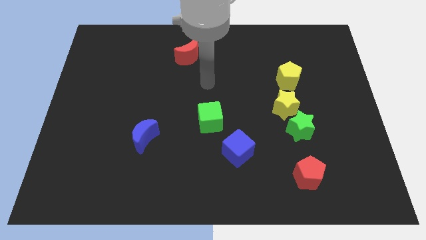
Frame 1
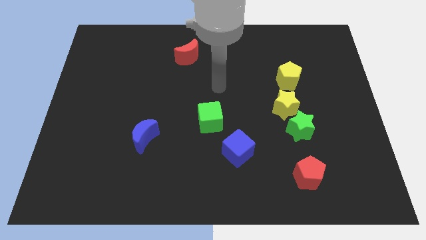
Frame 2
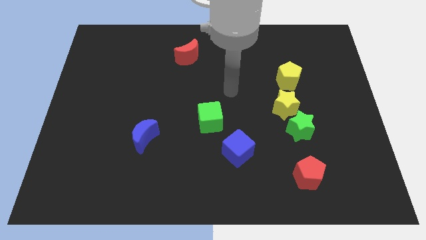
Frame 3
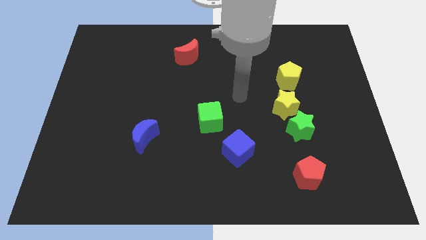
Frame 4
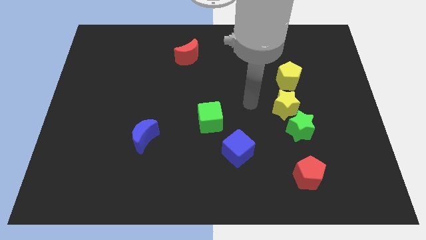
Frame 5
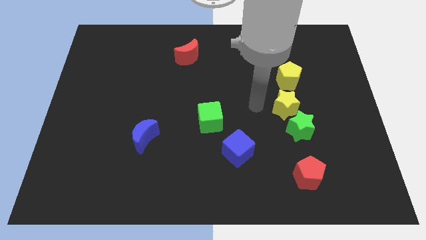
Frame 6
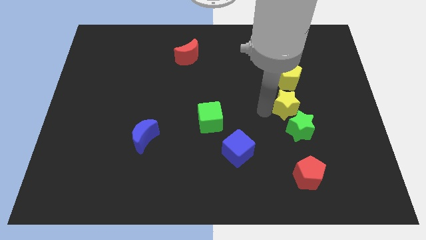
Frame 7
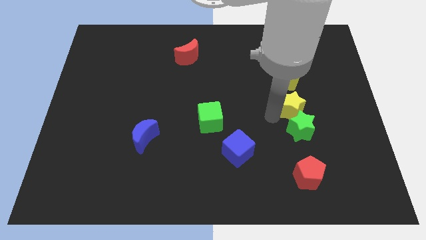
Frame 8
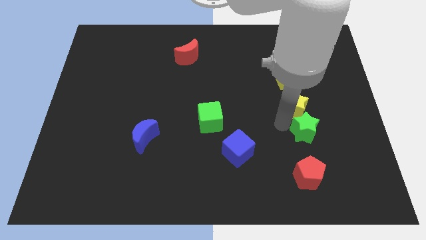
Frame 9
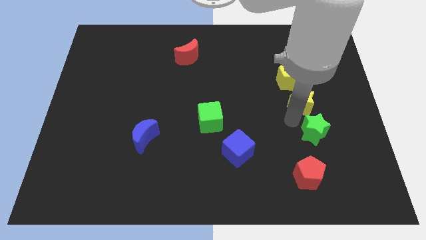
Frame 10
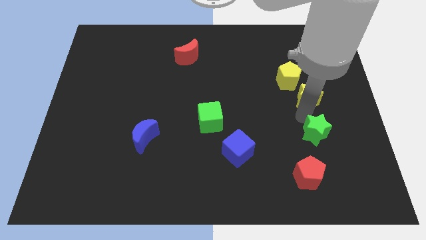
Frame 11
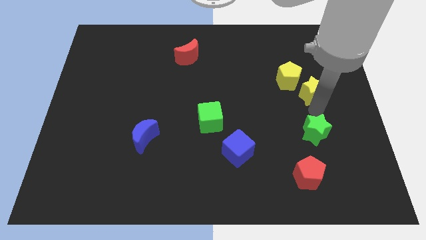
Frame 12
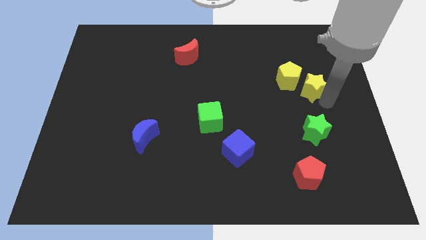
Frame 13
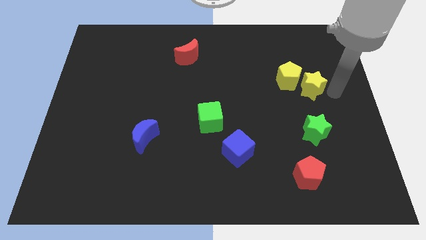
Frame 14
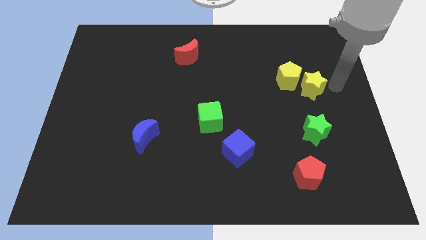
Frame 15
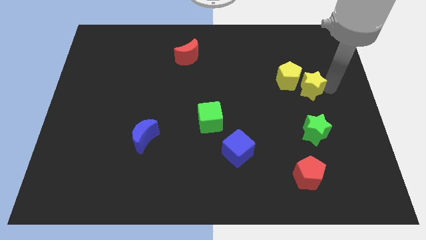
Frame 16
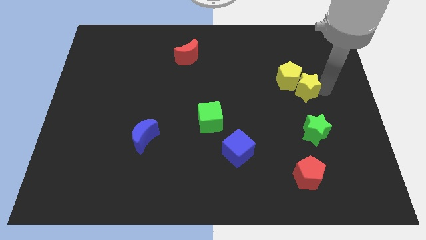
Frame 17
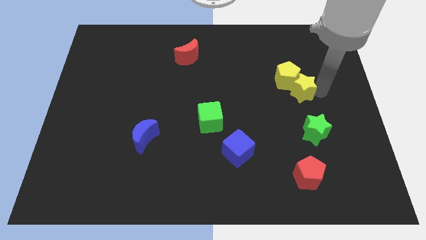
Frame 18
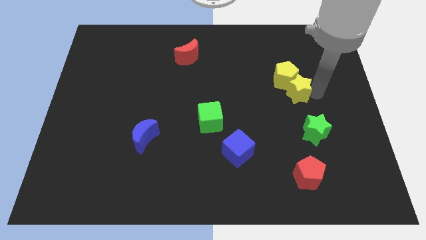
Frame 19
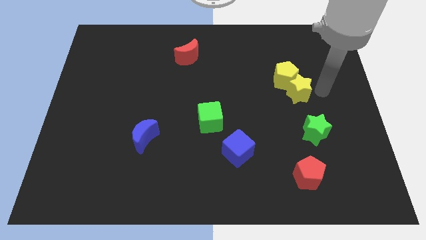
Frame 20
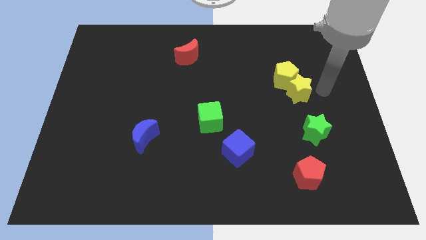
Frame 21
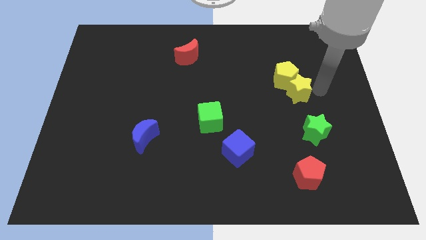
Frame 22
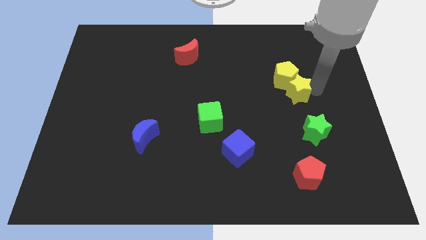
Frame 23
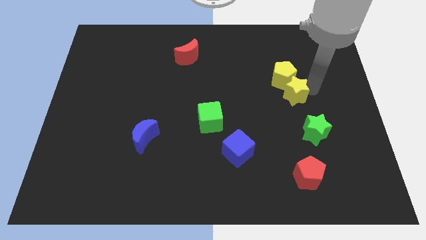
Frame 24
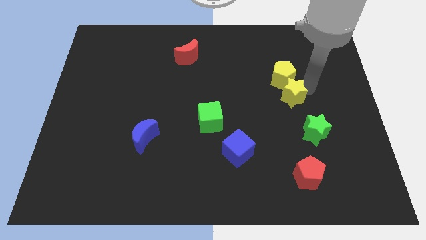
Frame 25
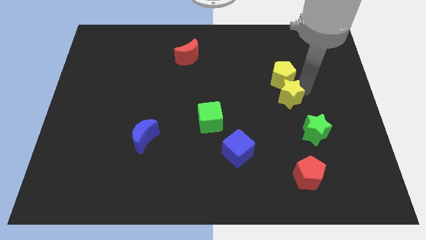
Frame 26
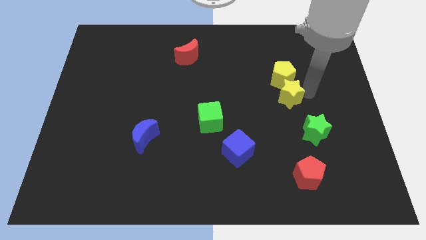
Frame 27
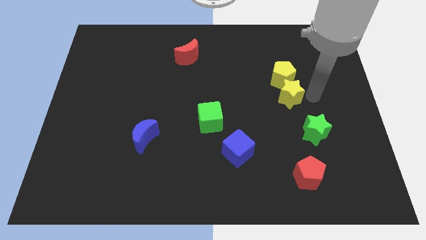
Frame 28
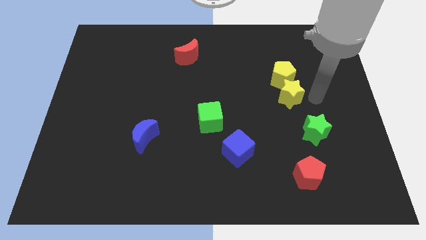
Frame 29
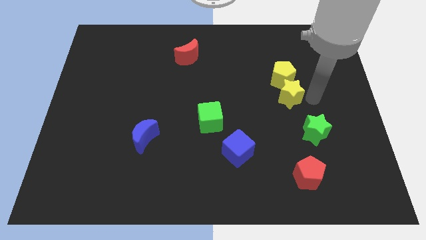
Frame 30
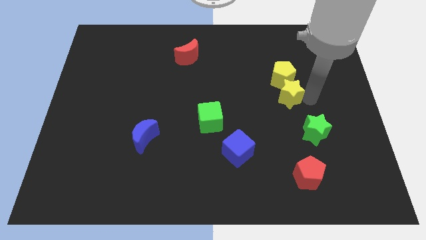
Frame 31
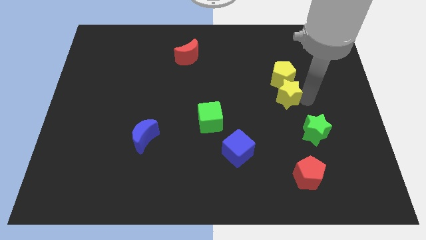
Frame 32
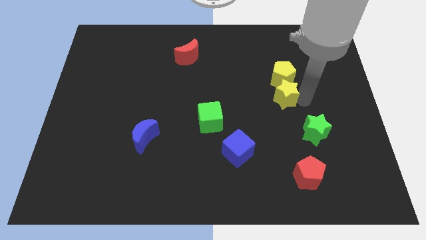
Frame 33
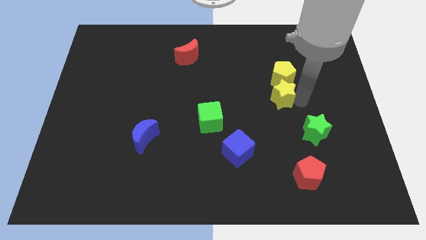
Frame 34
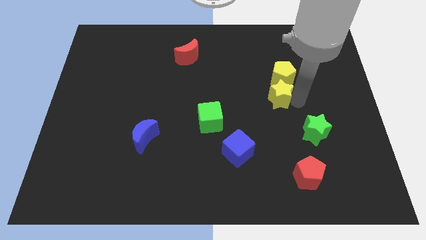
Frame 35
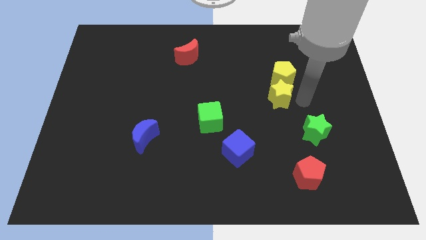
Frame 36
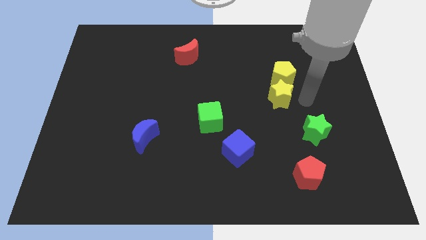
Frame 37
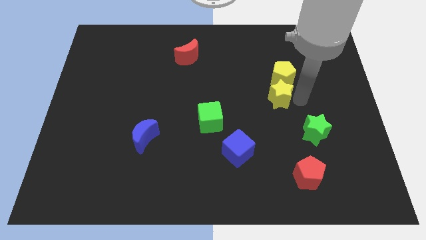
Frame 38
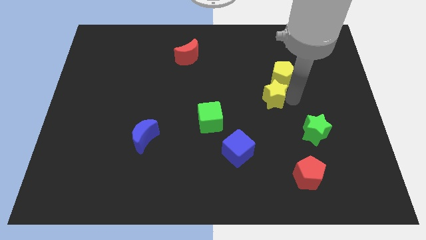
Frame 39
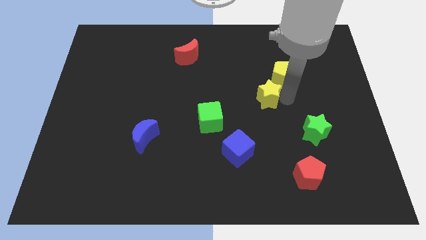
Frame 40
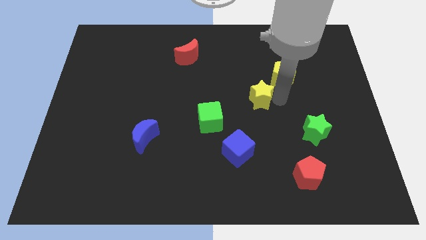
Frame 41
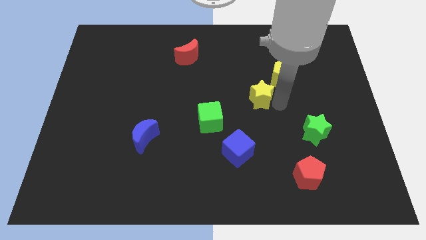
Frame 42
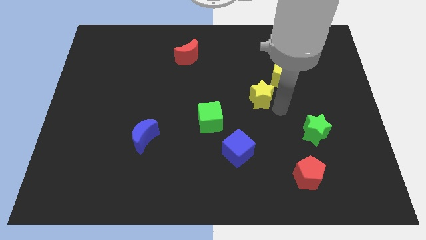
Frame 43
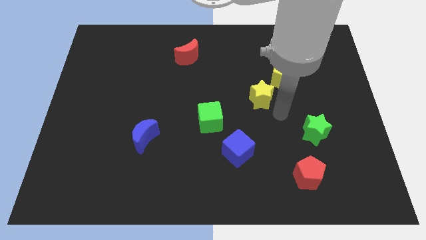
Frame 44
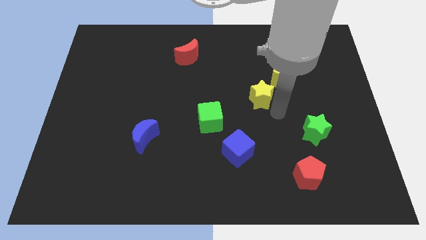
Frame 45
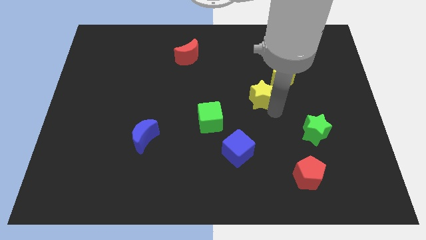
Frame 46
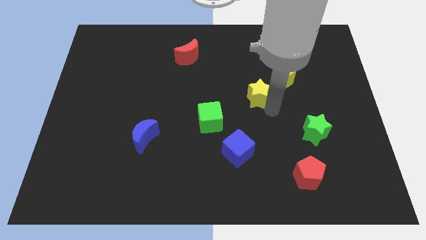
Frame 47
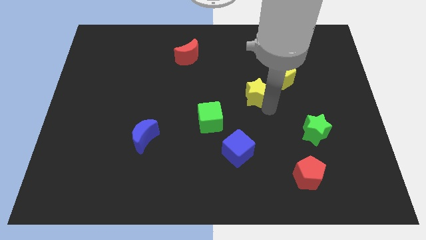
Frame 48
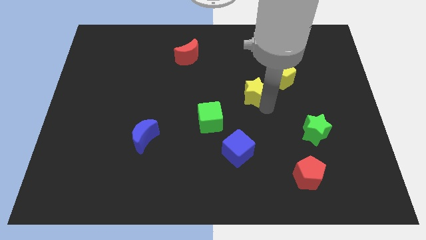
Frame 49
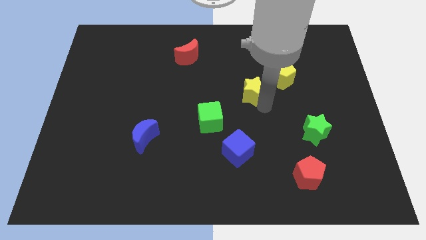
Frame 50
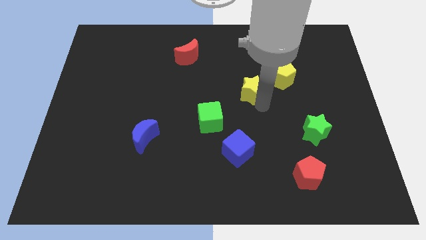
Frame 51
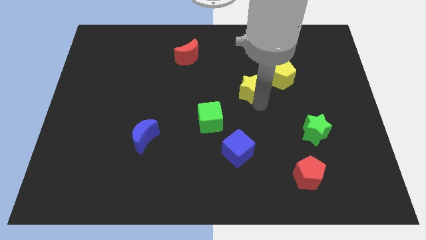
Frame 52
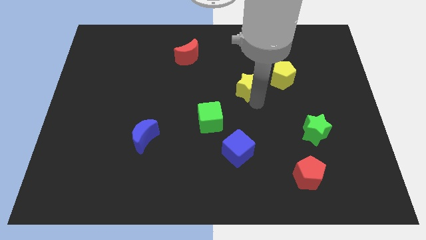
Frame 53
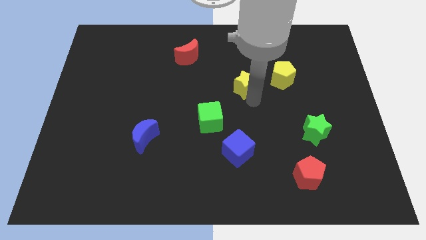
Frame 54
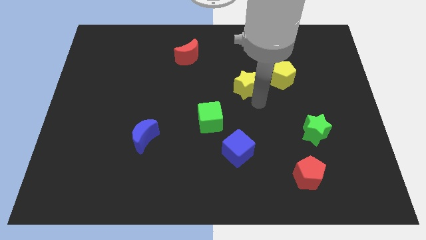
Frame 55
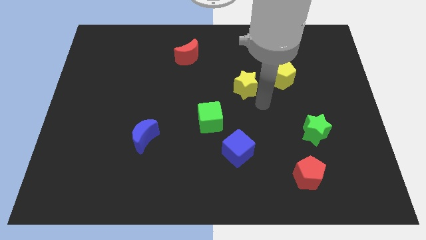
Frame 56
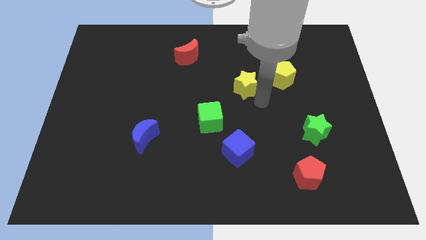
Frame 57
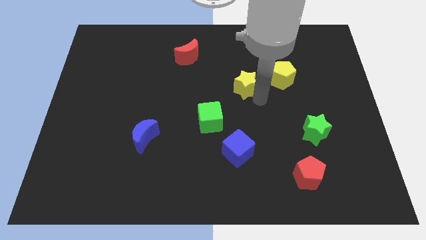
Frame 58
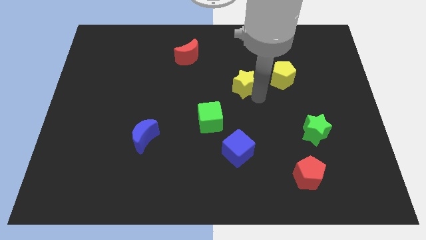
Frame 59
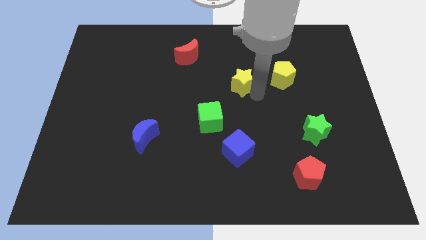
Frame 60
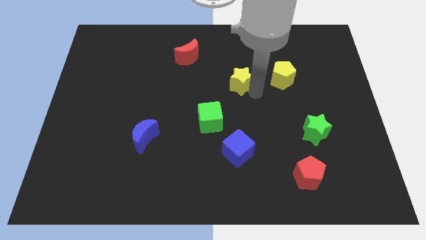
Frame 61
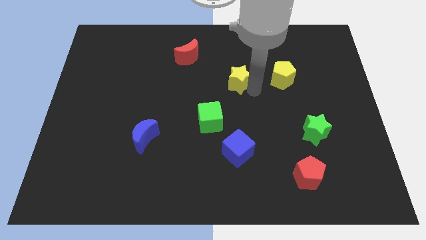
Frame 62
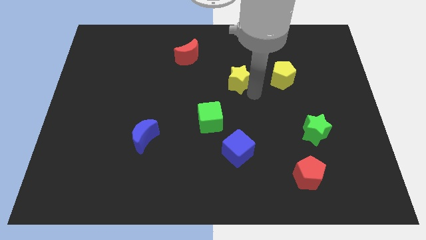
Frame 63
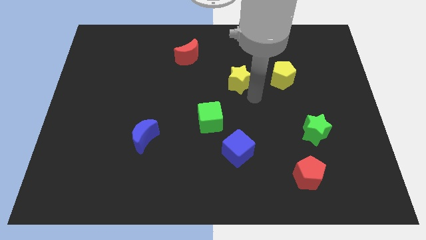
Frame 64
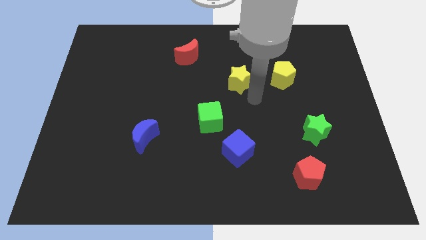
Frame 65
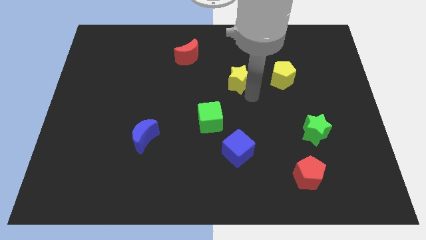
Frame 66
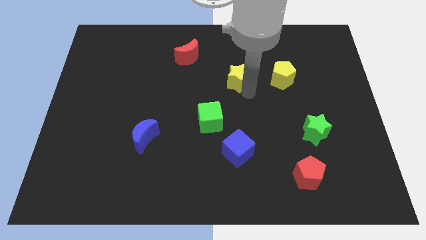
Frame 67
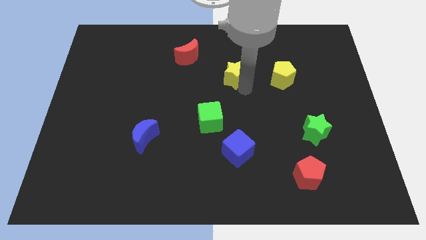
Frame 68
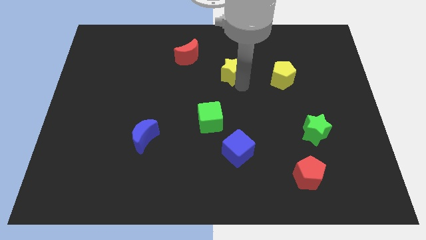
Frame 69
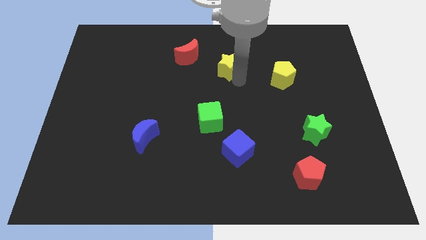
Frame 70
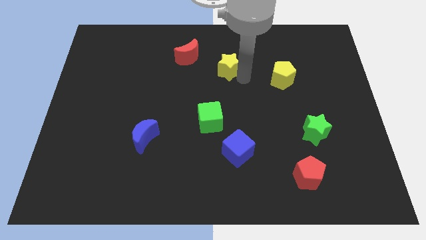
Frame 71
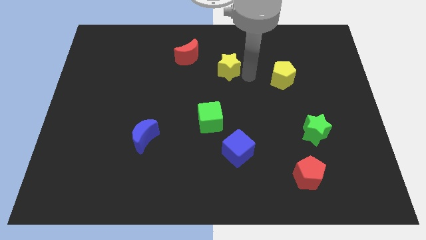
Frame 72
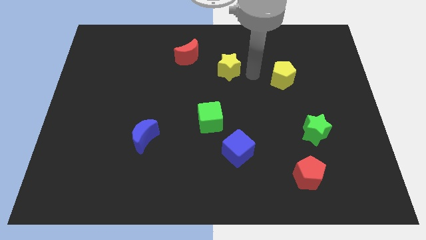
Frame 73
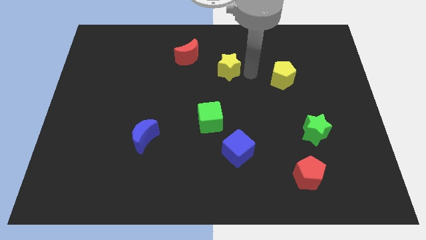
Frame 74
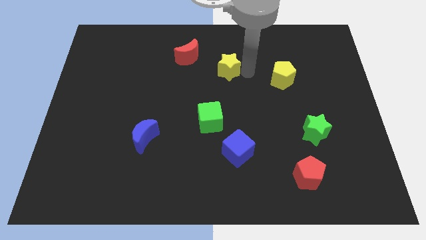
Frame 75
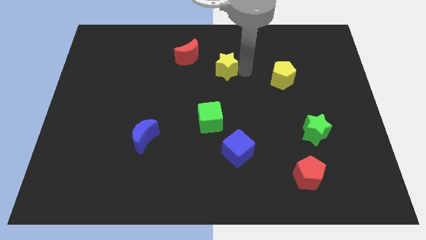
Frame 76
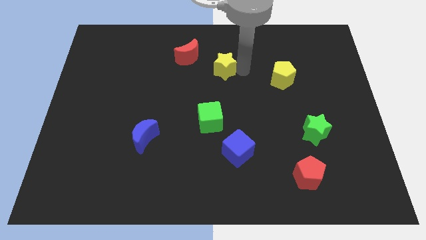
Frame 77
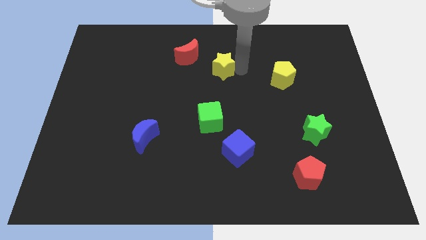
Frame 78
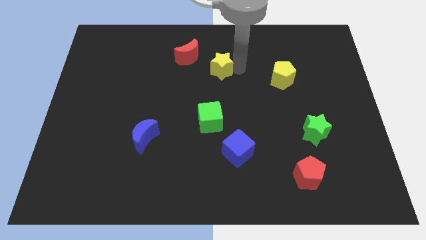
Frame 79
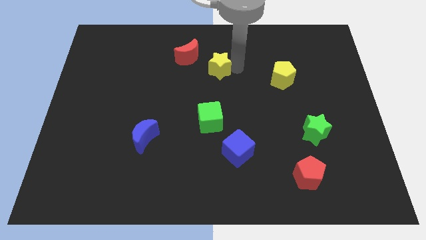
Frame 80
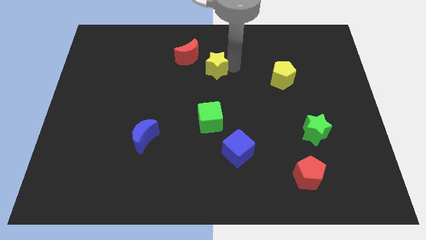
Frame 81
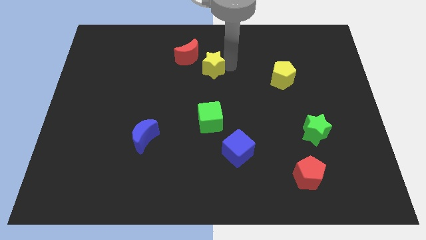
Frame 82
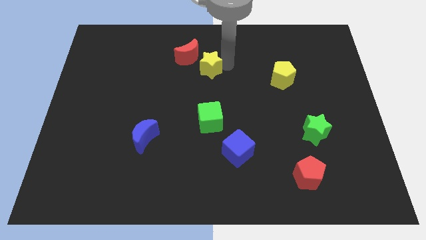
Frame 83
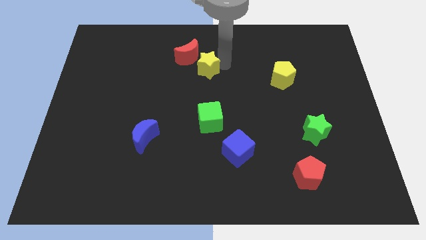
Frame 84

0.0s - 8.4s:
push the yellow star next to the red moon
